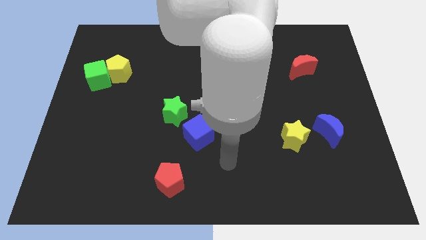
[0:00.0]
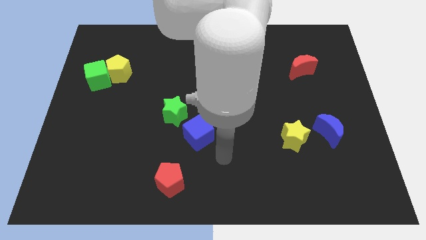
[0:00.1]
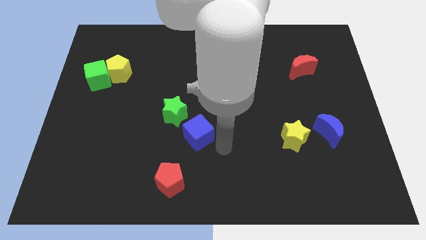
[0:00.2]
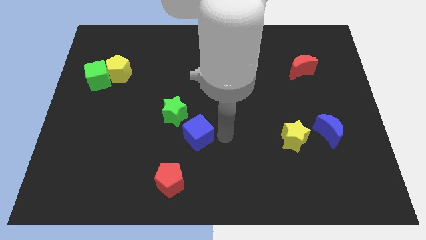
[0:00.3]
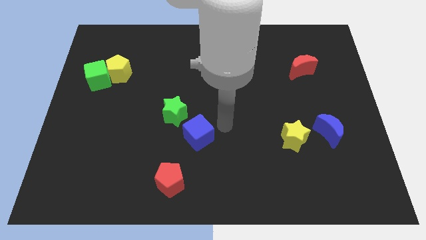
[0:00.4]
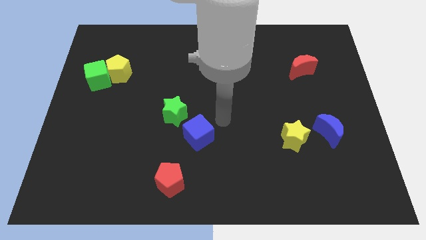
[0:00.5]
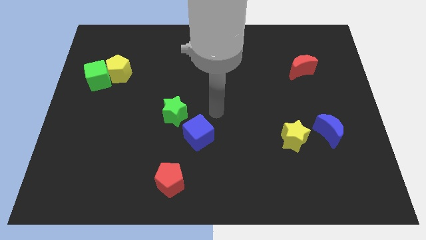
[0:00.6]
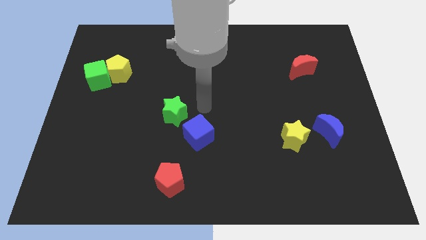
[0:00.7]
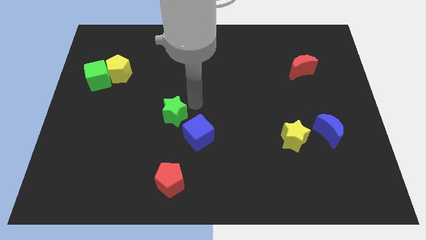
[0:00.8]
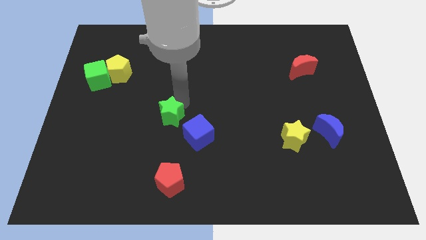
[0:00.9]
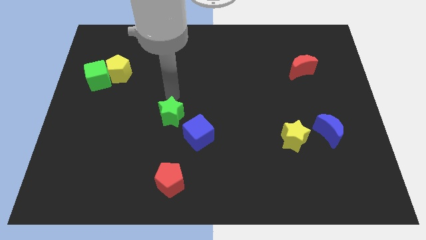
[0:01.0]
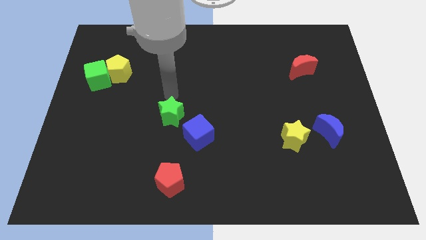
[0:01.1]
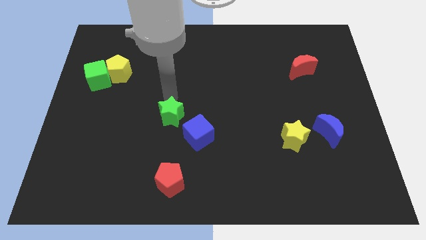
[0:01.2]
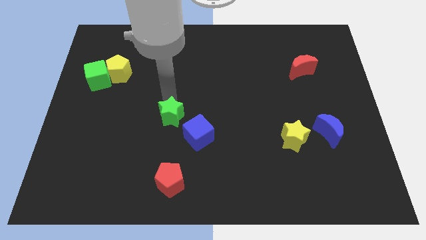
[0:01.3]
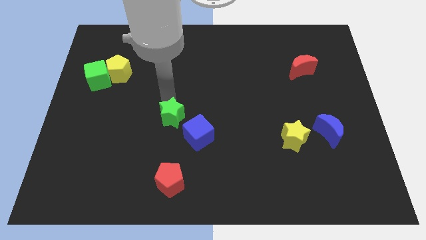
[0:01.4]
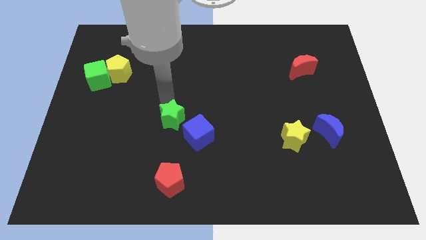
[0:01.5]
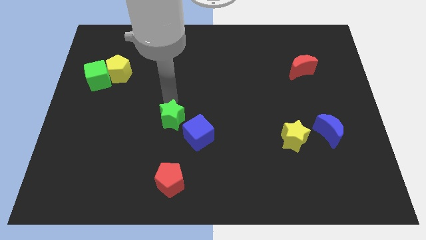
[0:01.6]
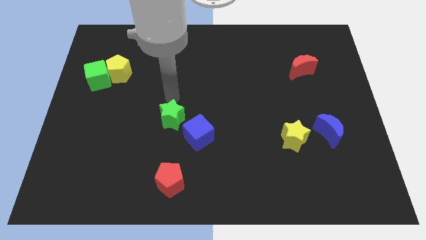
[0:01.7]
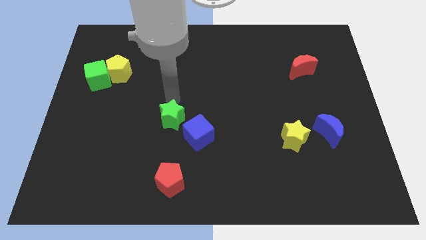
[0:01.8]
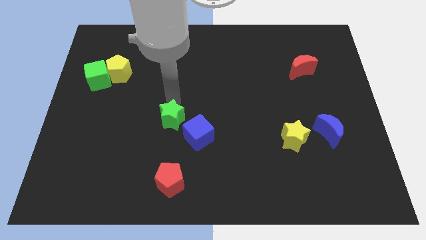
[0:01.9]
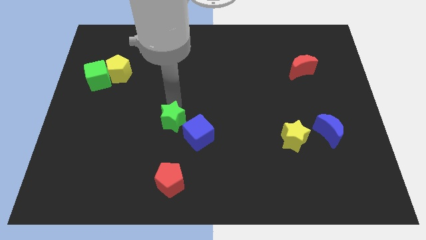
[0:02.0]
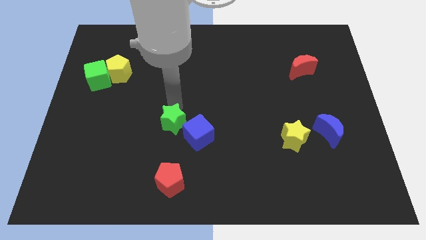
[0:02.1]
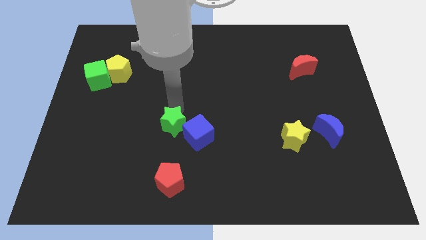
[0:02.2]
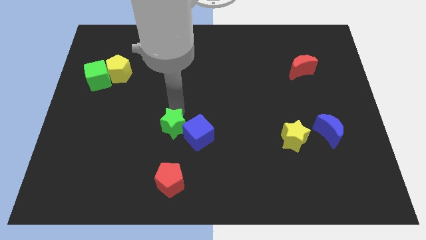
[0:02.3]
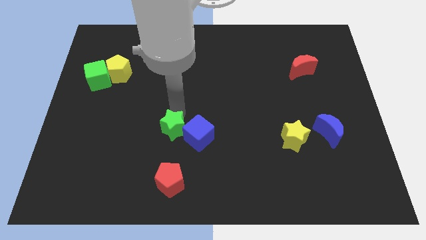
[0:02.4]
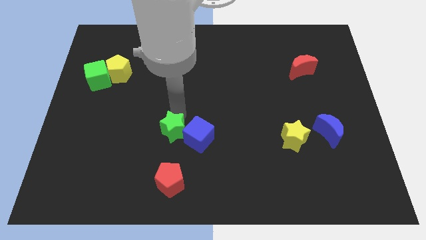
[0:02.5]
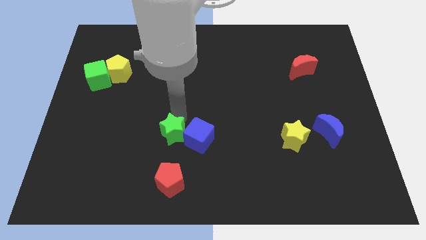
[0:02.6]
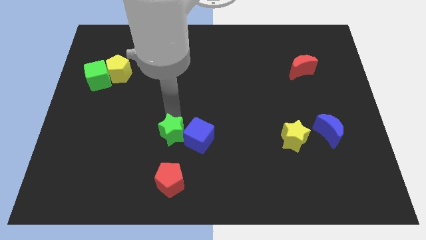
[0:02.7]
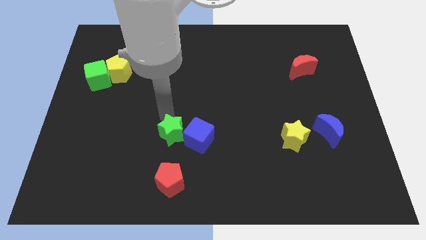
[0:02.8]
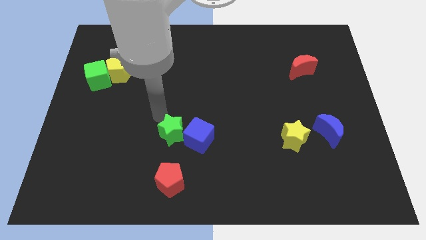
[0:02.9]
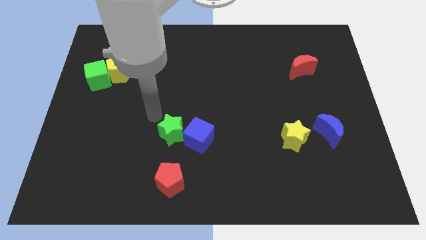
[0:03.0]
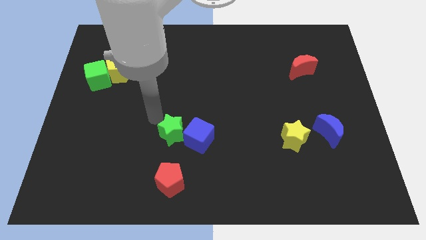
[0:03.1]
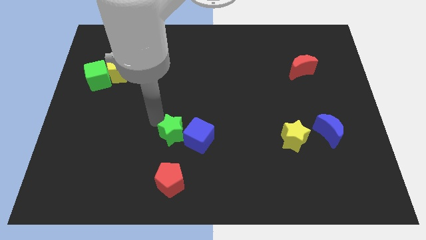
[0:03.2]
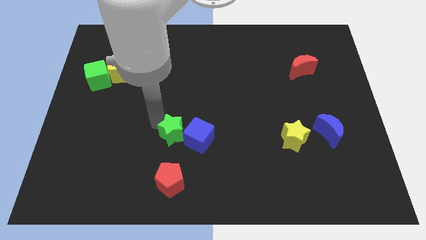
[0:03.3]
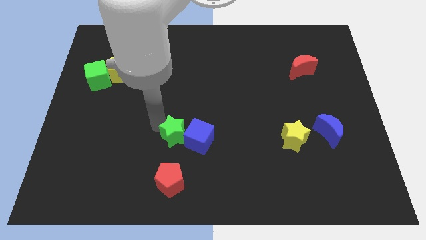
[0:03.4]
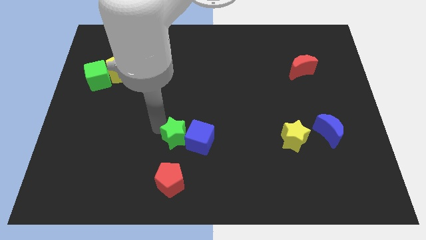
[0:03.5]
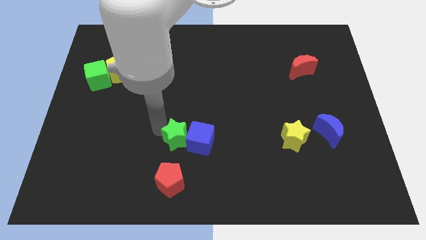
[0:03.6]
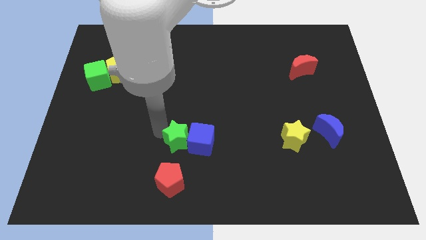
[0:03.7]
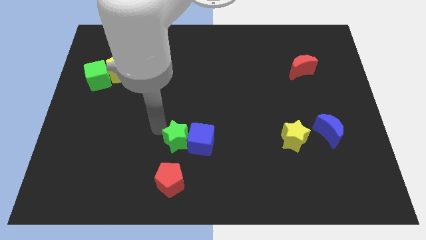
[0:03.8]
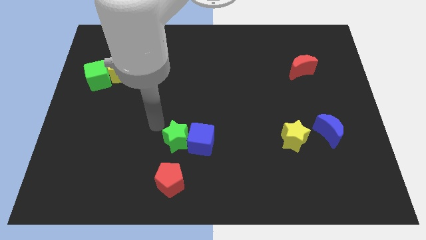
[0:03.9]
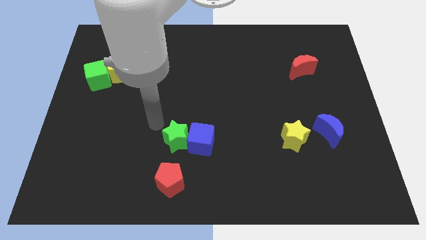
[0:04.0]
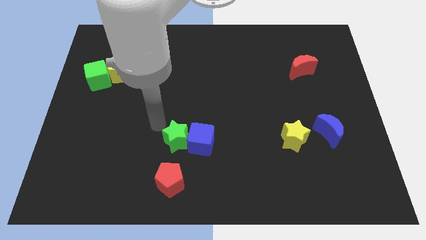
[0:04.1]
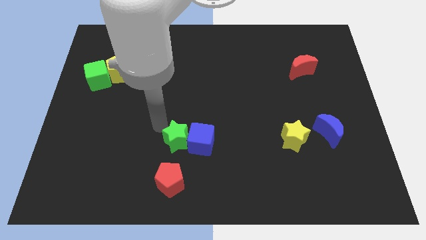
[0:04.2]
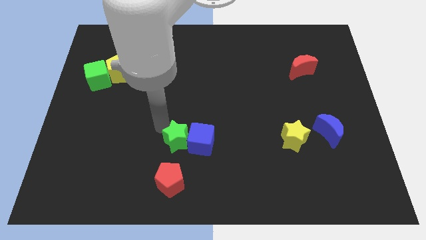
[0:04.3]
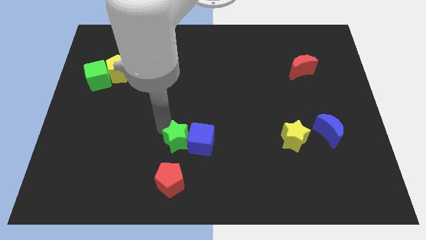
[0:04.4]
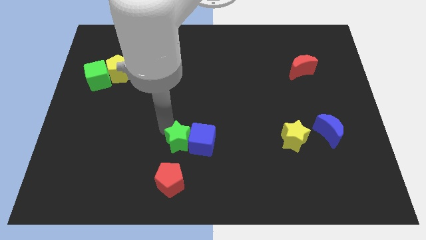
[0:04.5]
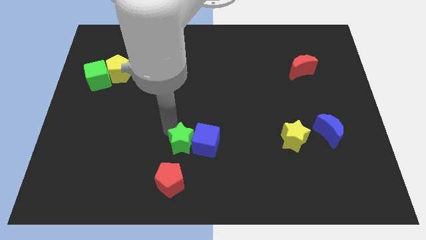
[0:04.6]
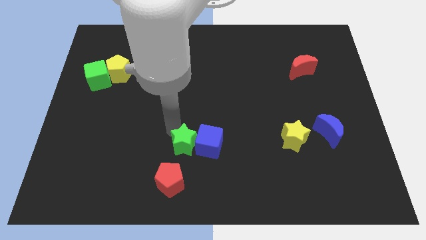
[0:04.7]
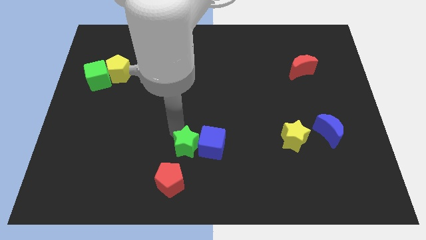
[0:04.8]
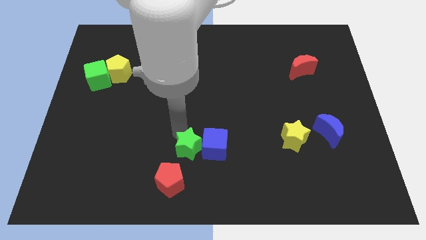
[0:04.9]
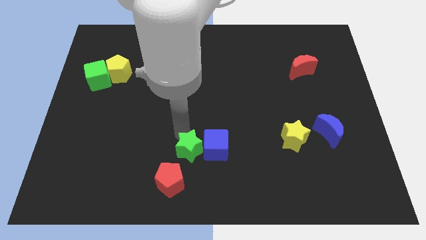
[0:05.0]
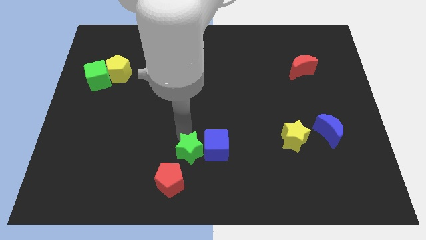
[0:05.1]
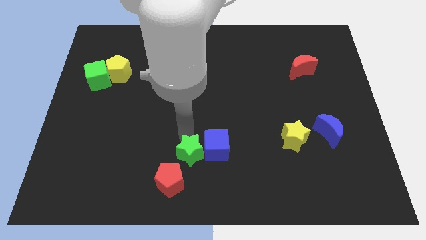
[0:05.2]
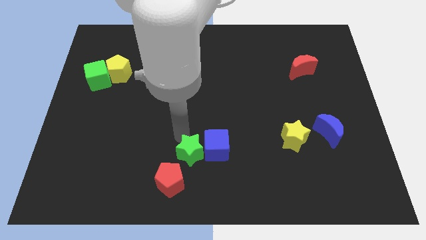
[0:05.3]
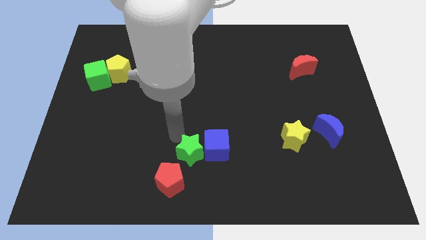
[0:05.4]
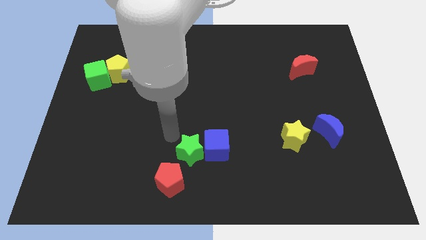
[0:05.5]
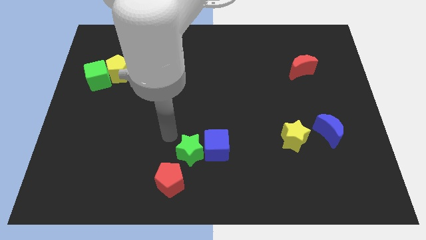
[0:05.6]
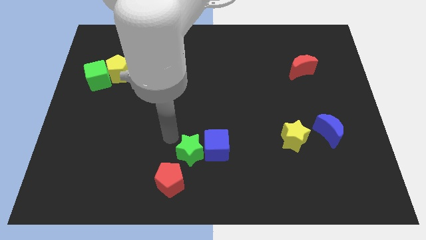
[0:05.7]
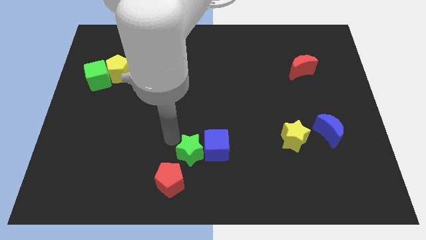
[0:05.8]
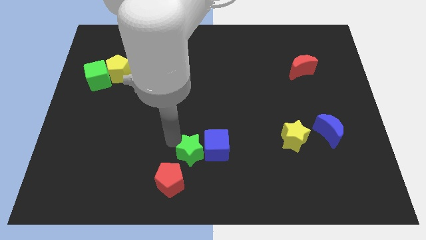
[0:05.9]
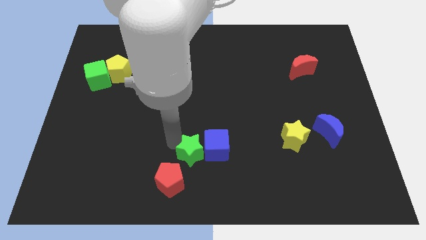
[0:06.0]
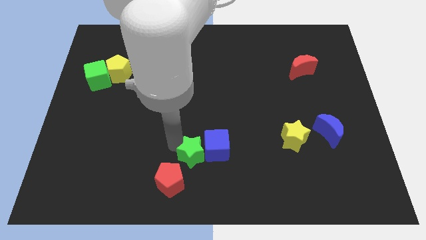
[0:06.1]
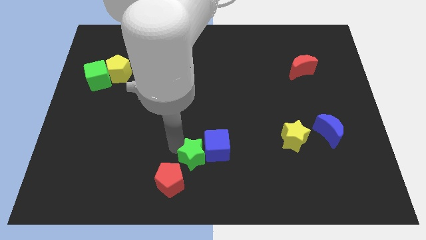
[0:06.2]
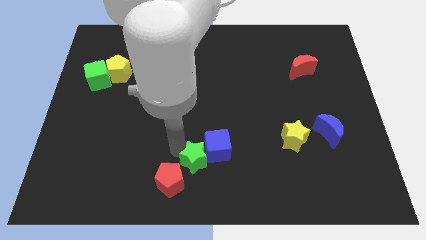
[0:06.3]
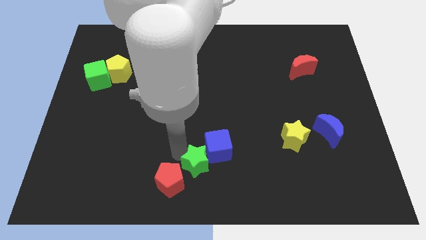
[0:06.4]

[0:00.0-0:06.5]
move the green star just right of the red pentagon
